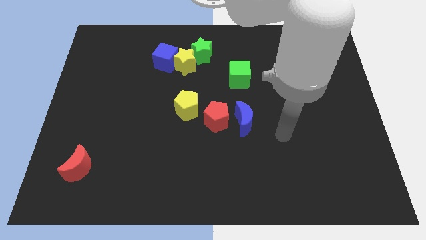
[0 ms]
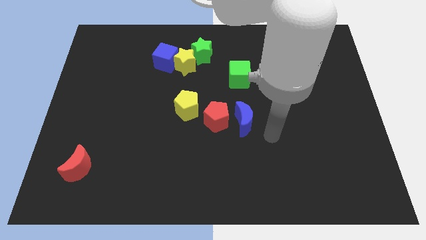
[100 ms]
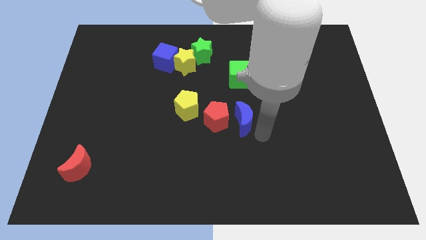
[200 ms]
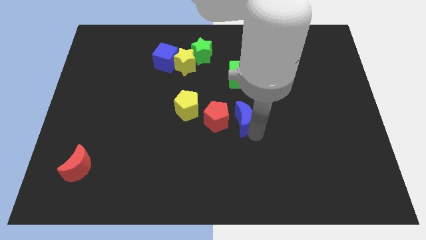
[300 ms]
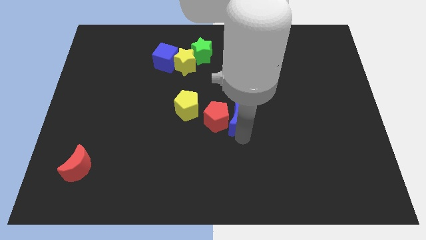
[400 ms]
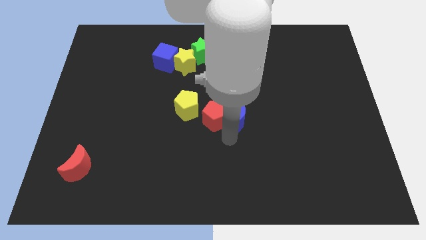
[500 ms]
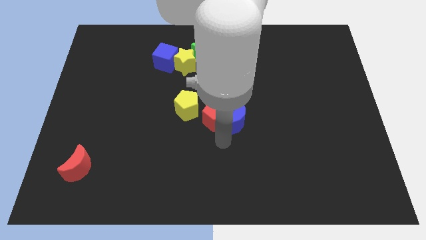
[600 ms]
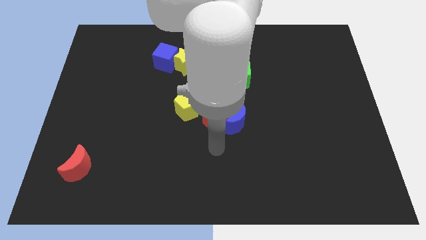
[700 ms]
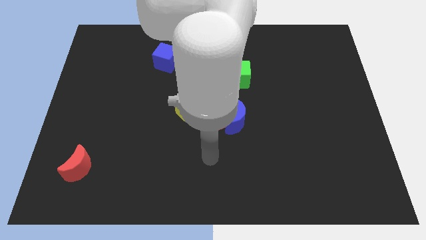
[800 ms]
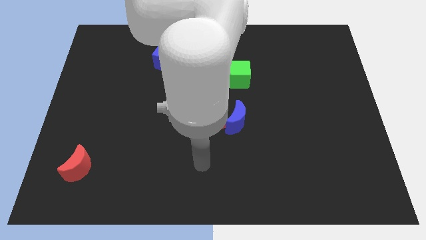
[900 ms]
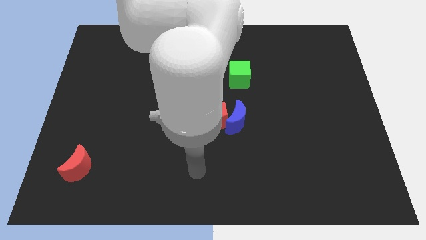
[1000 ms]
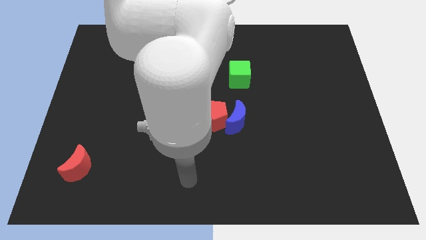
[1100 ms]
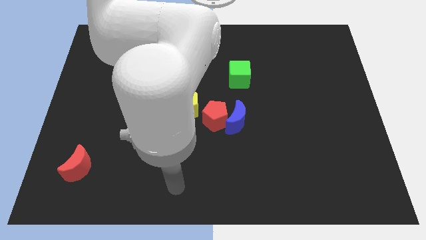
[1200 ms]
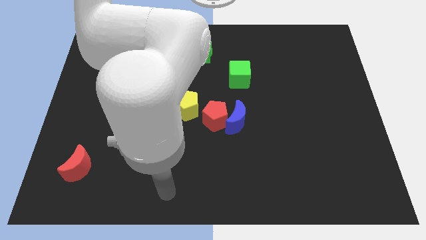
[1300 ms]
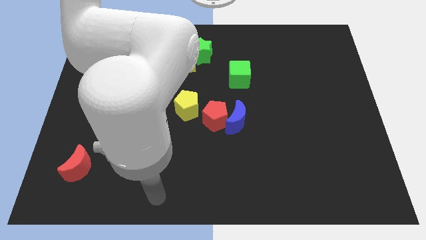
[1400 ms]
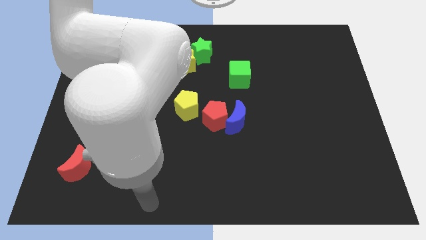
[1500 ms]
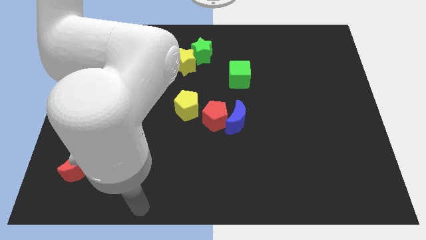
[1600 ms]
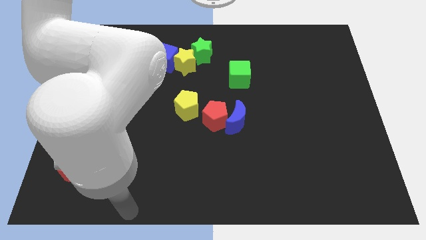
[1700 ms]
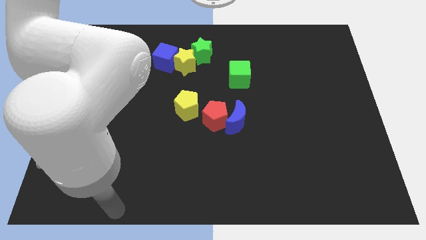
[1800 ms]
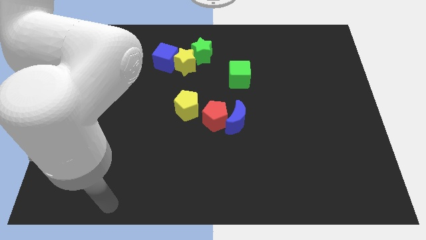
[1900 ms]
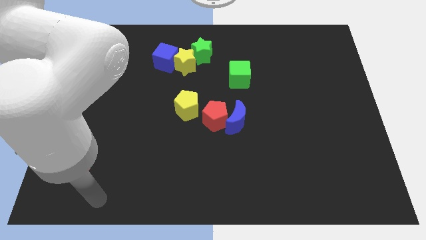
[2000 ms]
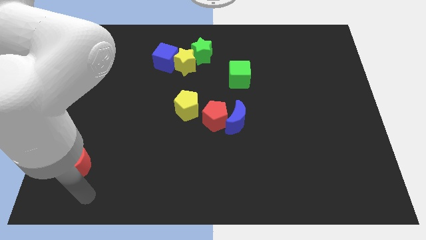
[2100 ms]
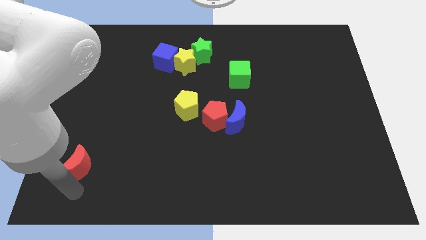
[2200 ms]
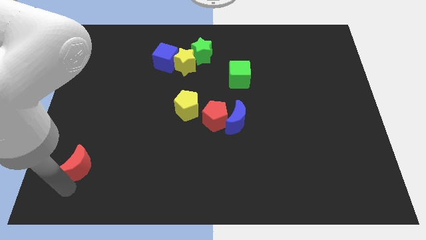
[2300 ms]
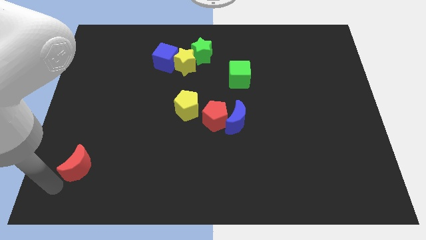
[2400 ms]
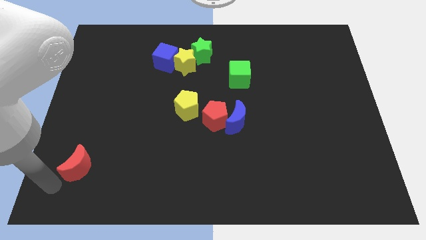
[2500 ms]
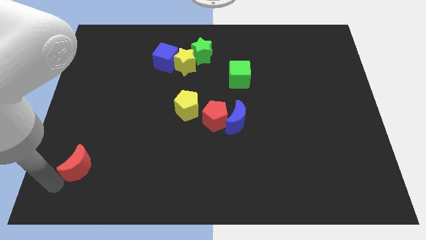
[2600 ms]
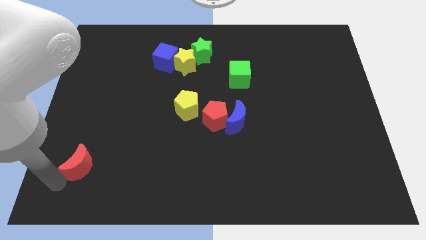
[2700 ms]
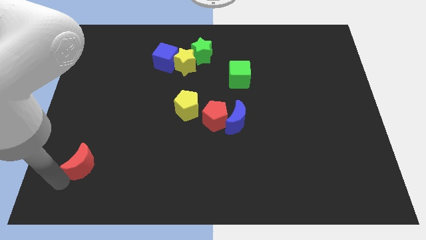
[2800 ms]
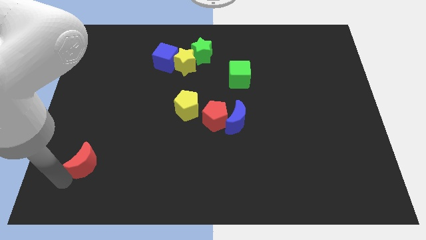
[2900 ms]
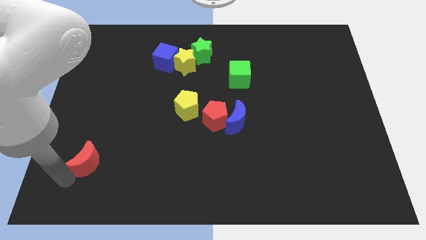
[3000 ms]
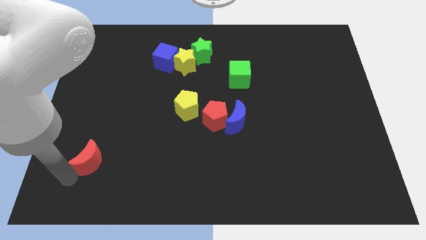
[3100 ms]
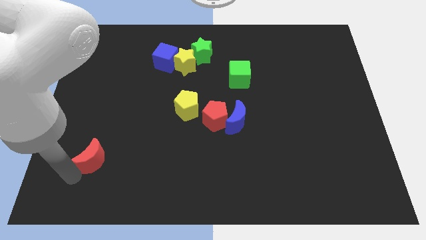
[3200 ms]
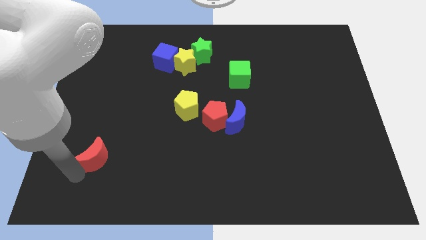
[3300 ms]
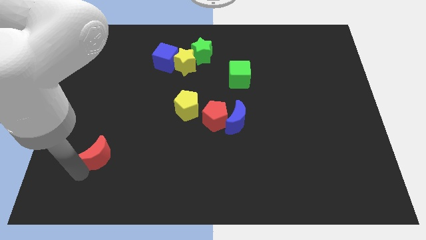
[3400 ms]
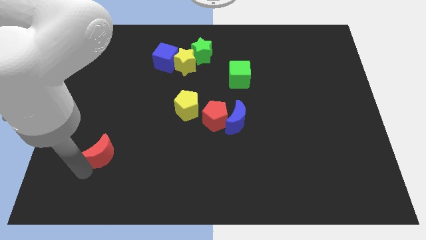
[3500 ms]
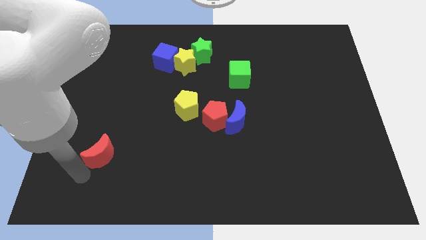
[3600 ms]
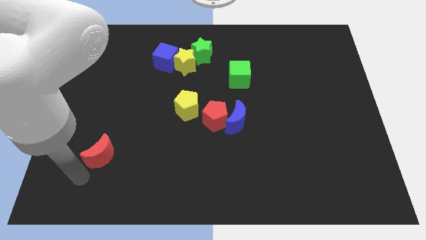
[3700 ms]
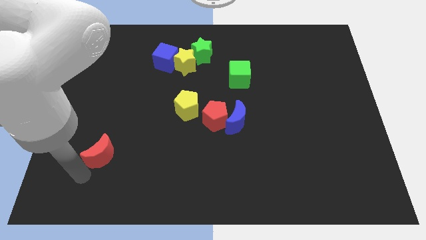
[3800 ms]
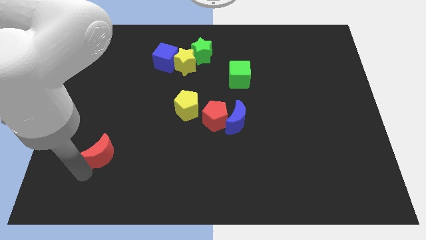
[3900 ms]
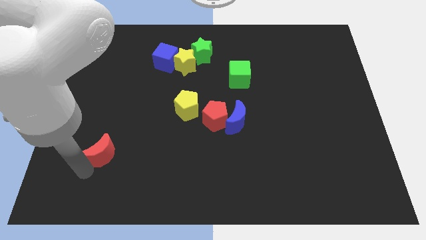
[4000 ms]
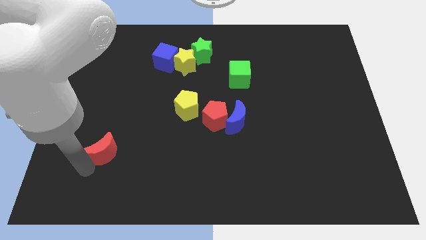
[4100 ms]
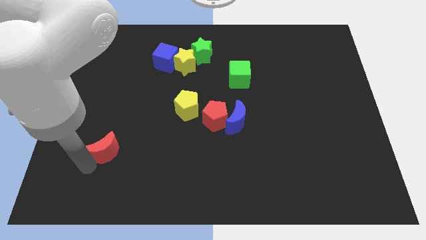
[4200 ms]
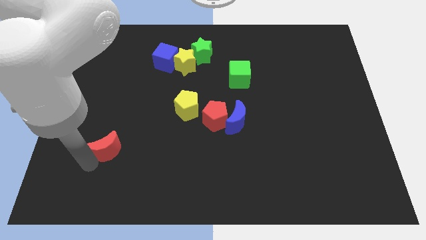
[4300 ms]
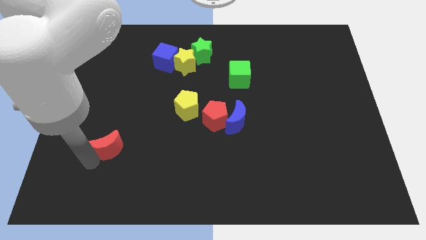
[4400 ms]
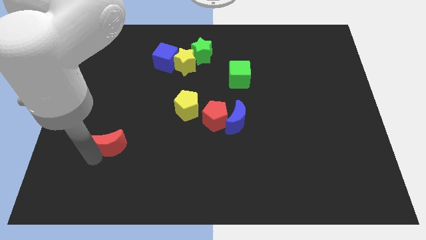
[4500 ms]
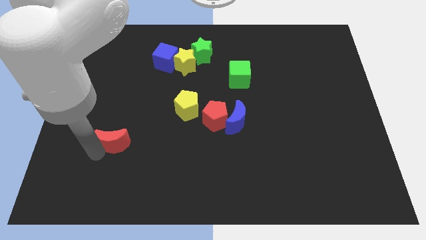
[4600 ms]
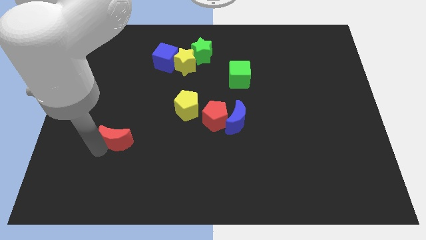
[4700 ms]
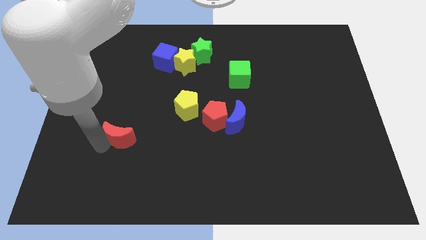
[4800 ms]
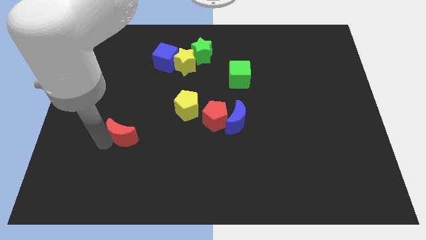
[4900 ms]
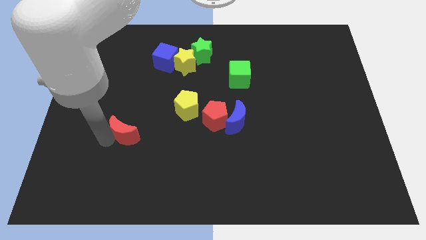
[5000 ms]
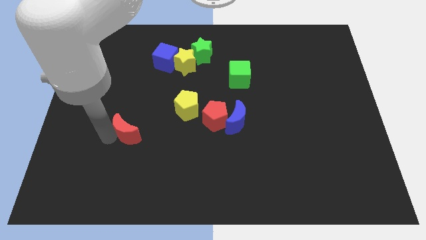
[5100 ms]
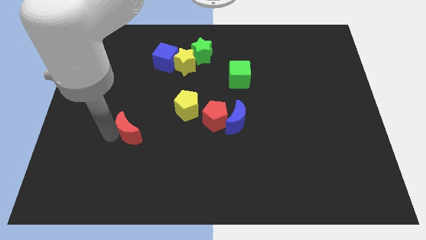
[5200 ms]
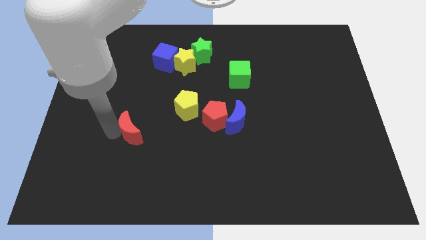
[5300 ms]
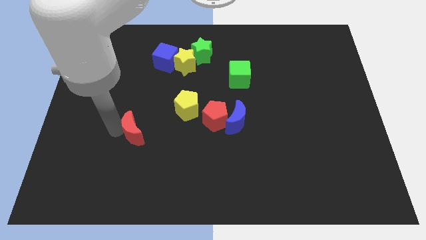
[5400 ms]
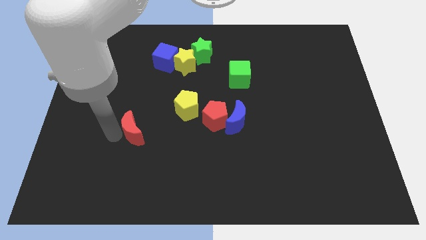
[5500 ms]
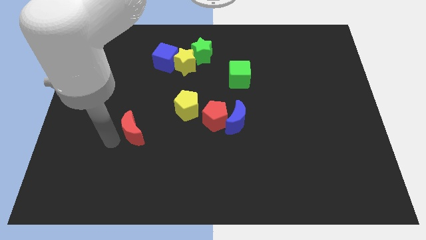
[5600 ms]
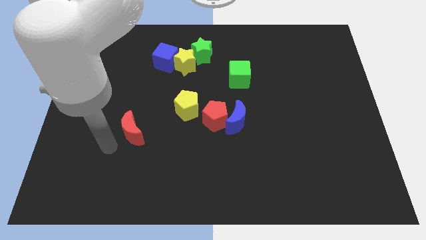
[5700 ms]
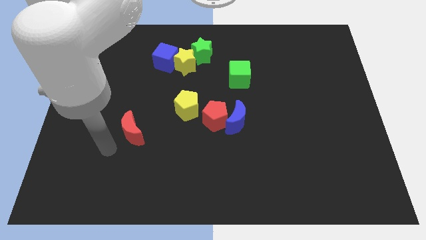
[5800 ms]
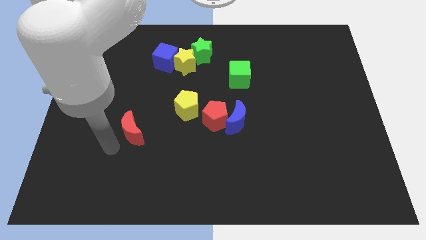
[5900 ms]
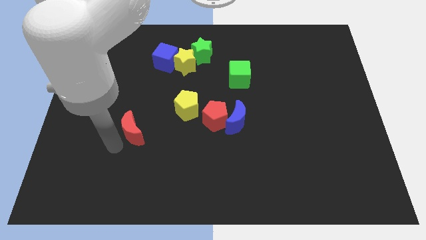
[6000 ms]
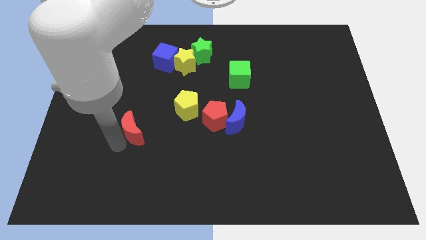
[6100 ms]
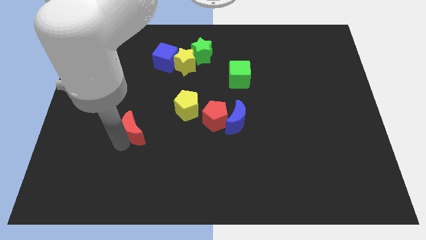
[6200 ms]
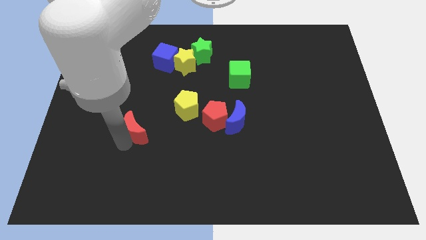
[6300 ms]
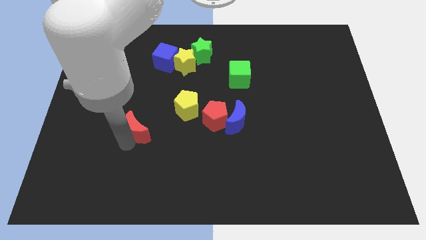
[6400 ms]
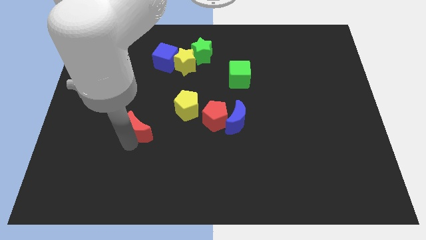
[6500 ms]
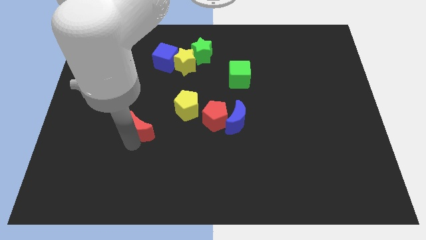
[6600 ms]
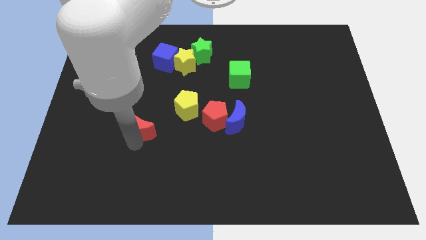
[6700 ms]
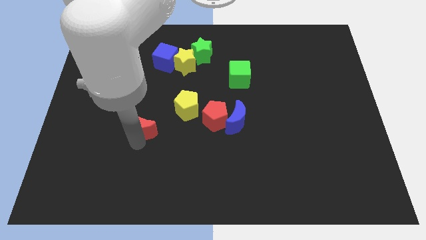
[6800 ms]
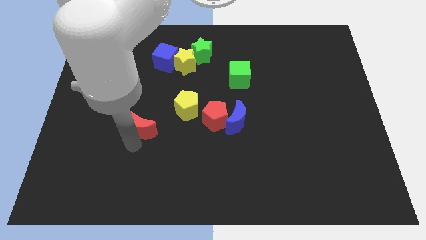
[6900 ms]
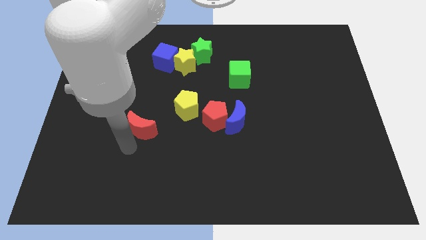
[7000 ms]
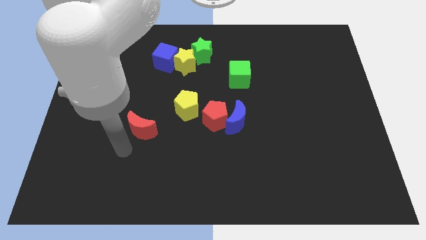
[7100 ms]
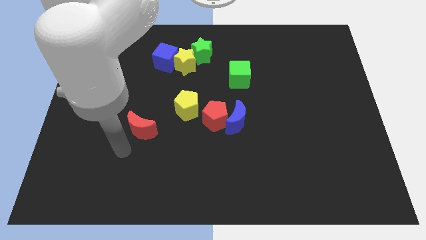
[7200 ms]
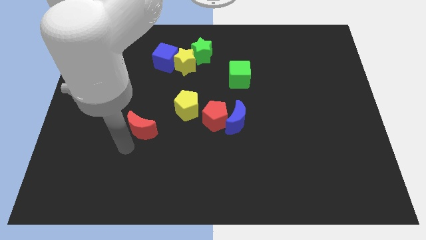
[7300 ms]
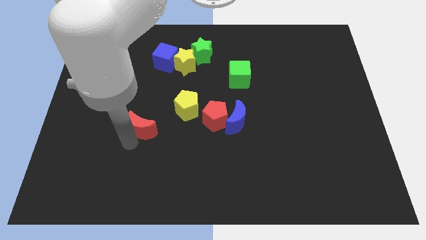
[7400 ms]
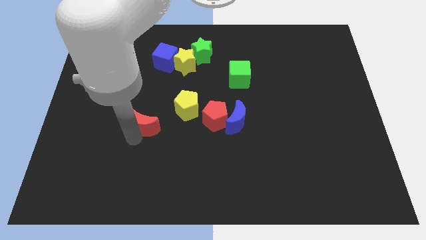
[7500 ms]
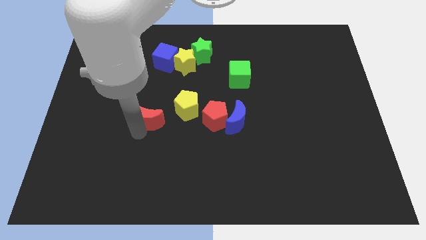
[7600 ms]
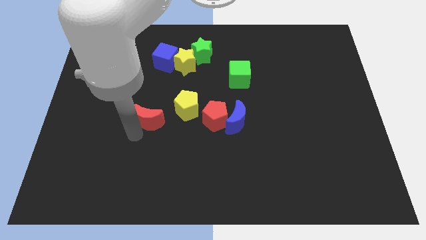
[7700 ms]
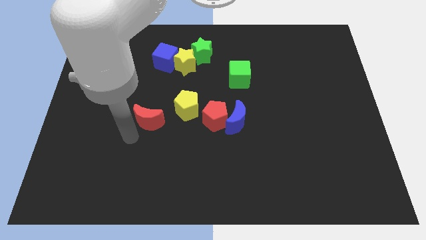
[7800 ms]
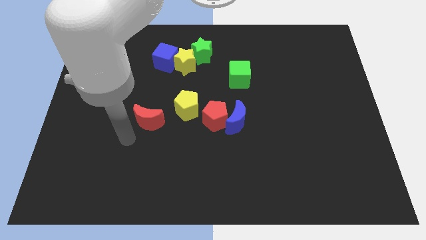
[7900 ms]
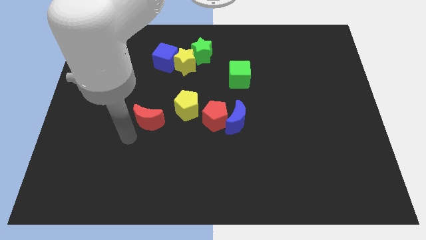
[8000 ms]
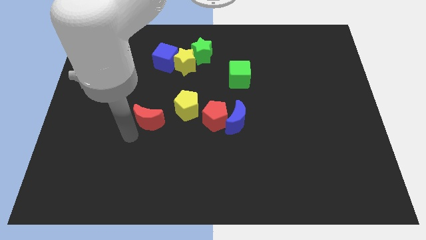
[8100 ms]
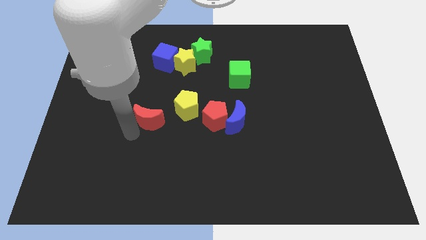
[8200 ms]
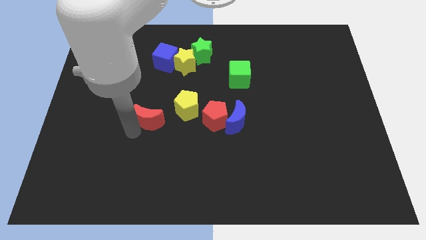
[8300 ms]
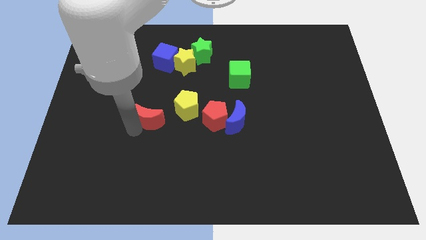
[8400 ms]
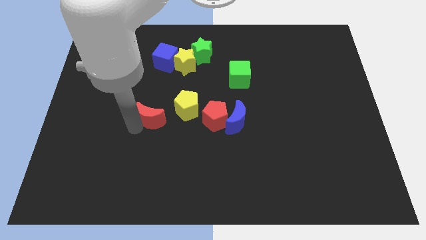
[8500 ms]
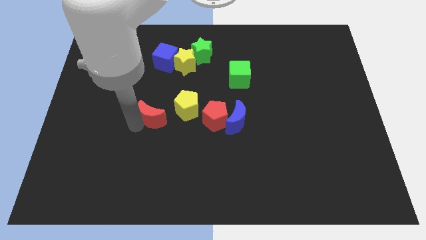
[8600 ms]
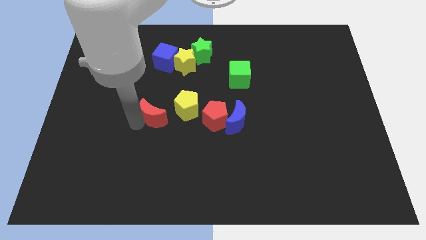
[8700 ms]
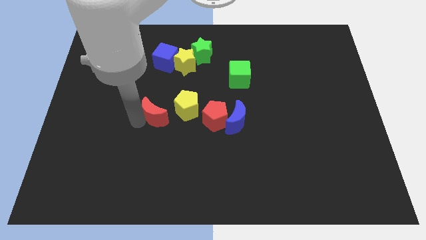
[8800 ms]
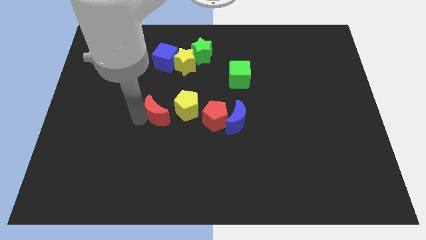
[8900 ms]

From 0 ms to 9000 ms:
slide the red moon upwards and then to the right
